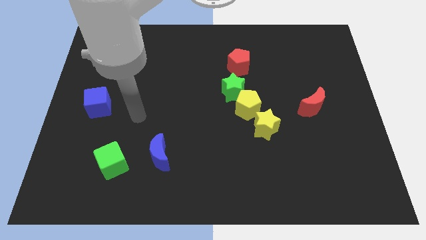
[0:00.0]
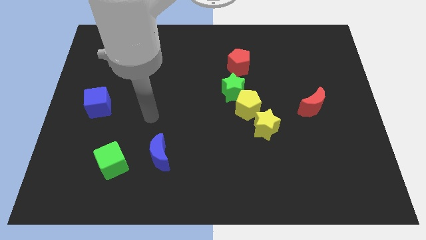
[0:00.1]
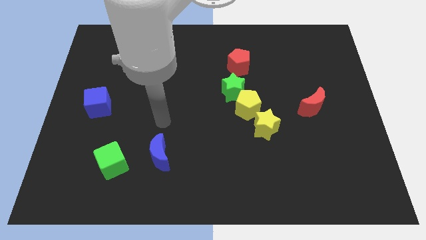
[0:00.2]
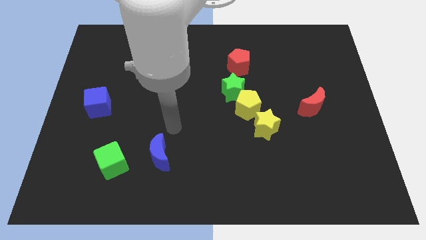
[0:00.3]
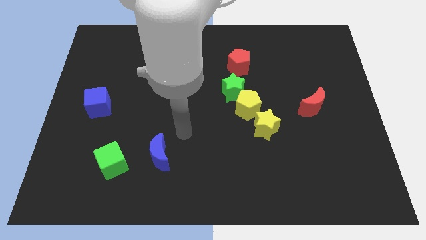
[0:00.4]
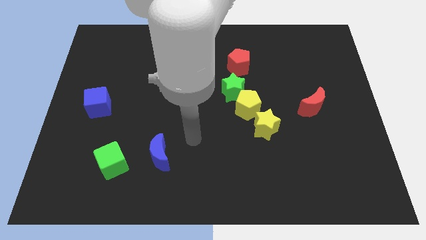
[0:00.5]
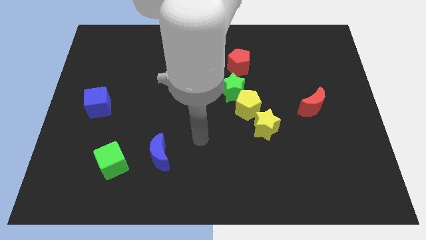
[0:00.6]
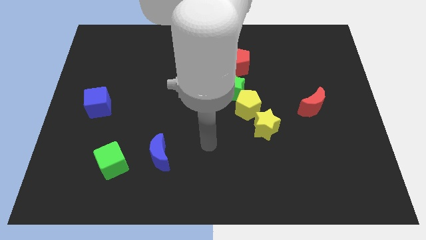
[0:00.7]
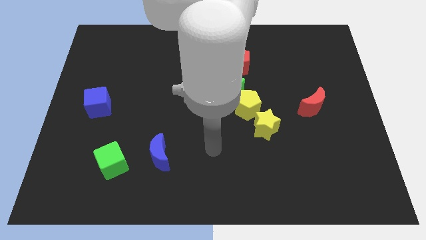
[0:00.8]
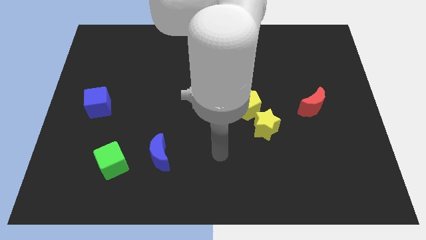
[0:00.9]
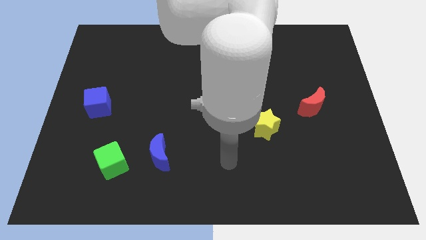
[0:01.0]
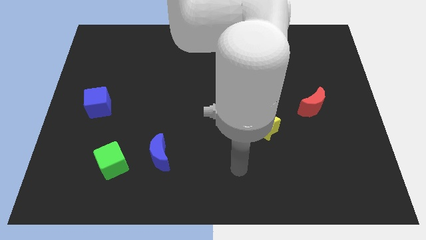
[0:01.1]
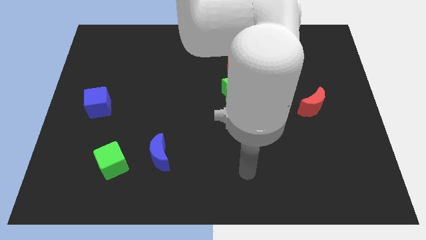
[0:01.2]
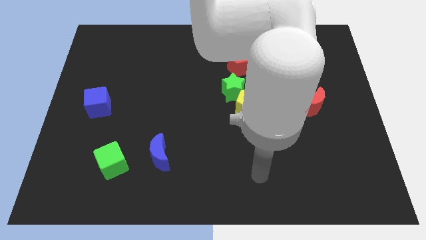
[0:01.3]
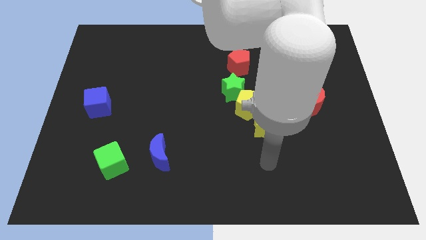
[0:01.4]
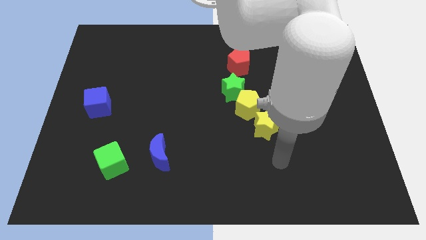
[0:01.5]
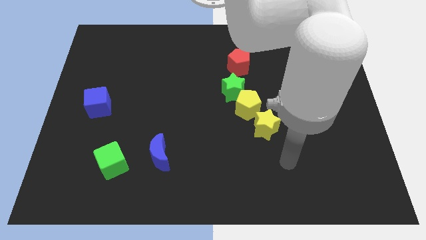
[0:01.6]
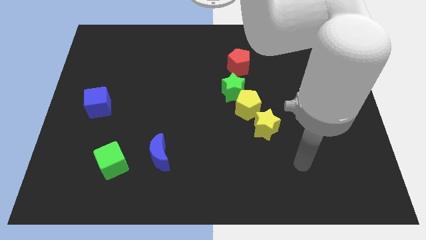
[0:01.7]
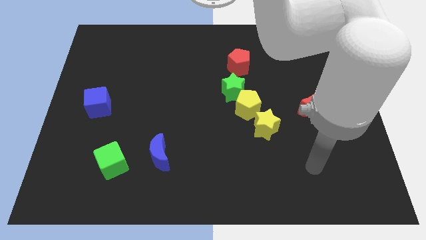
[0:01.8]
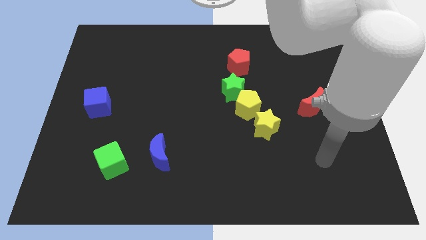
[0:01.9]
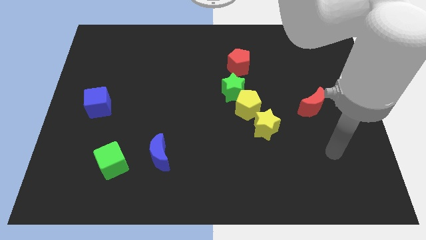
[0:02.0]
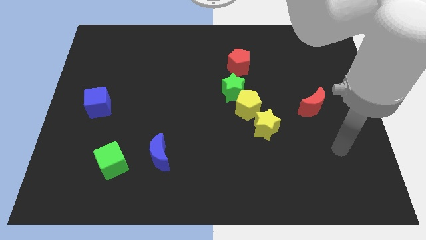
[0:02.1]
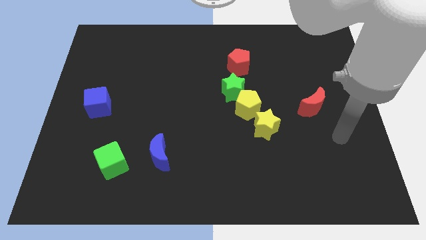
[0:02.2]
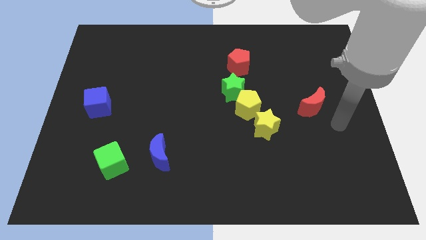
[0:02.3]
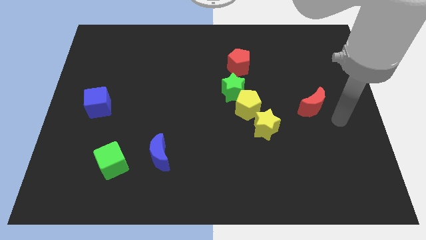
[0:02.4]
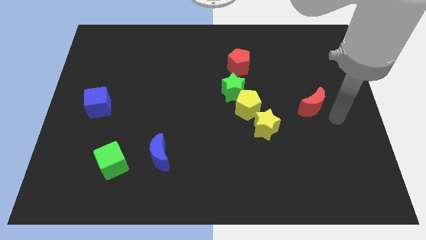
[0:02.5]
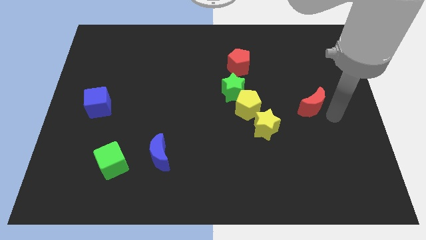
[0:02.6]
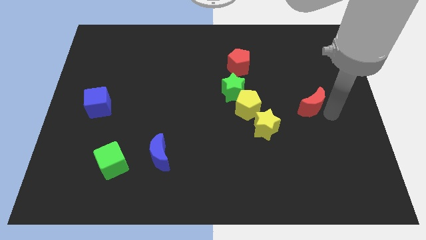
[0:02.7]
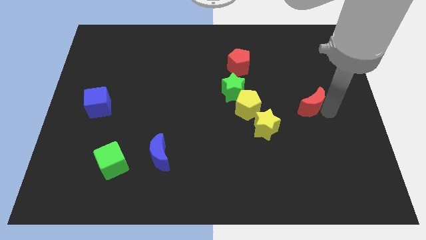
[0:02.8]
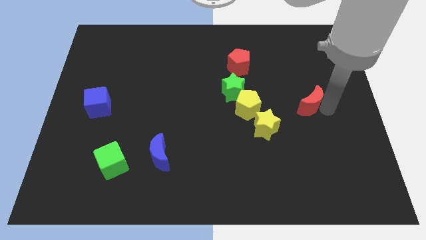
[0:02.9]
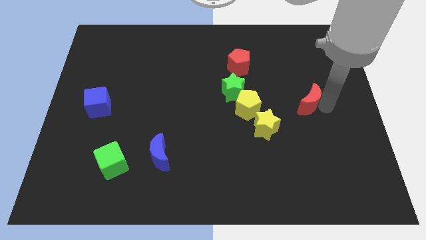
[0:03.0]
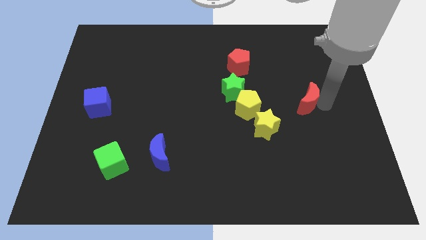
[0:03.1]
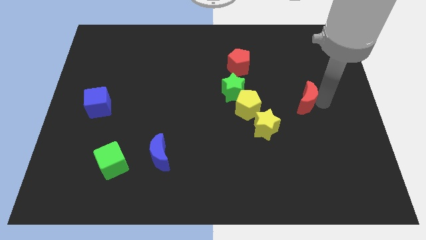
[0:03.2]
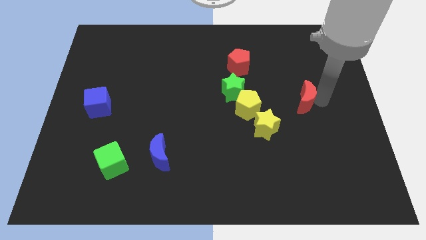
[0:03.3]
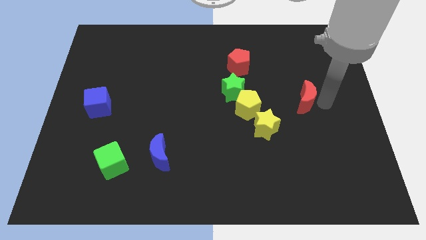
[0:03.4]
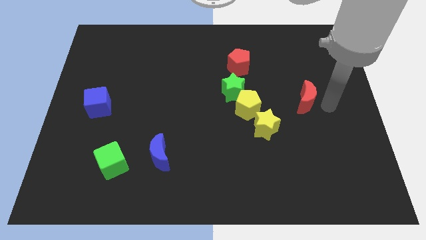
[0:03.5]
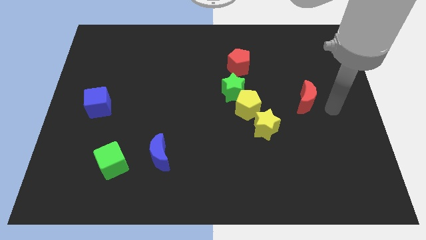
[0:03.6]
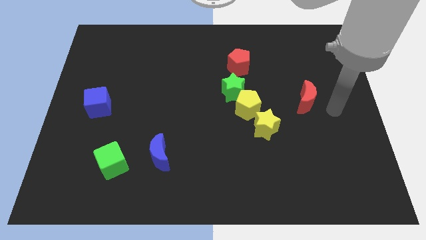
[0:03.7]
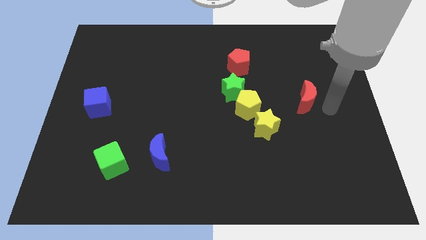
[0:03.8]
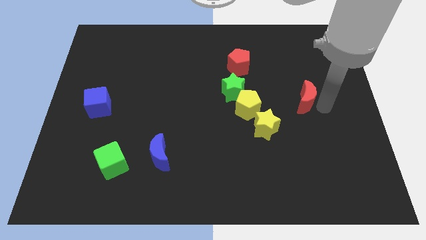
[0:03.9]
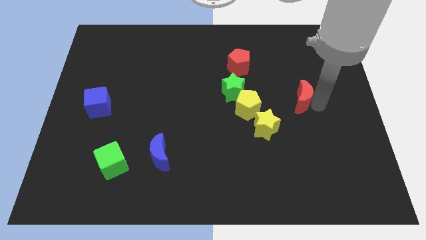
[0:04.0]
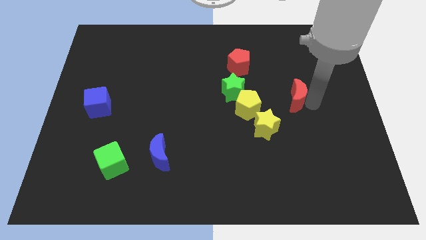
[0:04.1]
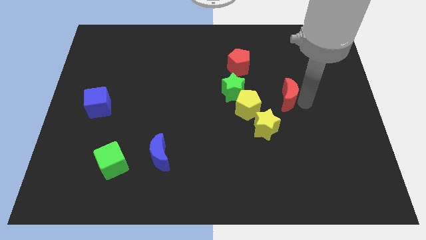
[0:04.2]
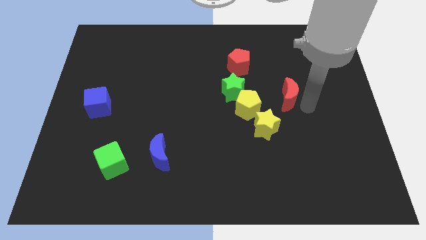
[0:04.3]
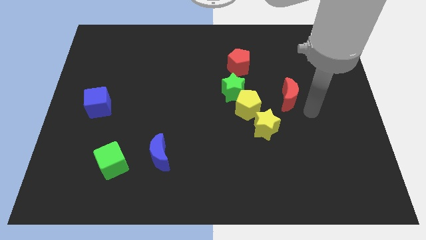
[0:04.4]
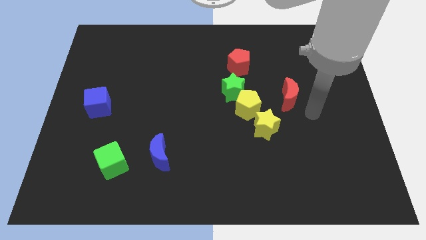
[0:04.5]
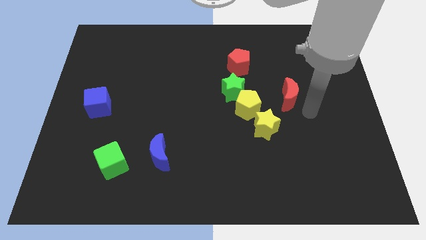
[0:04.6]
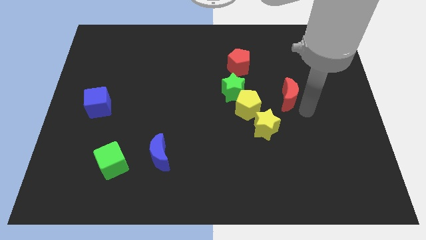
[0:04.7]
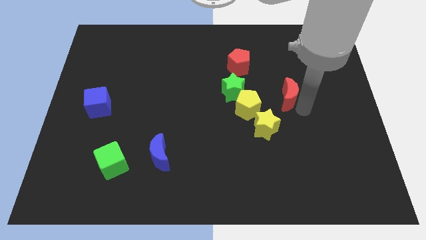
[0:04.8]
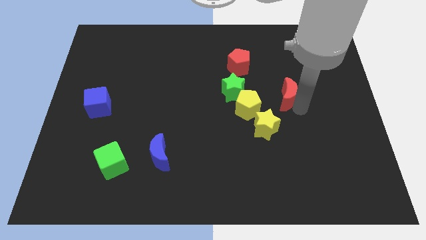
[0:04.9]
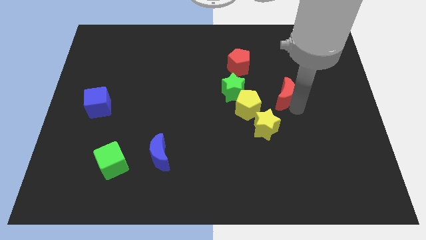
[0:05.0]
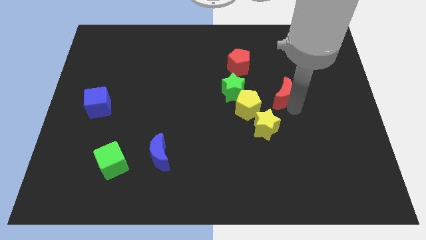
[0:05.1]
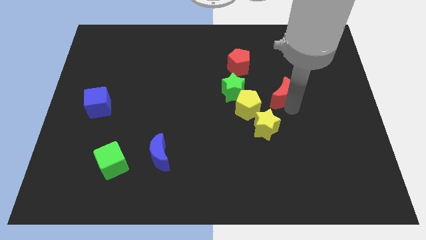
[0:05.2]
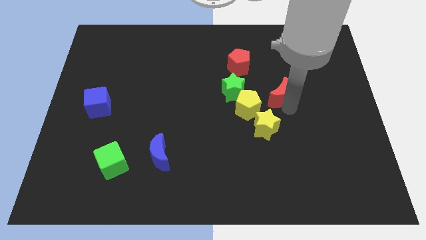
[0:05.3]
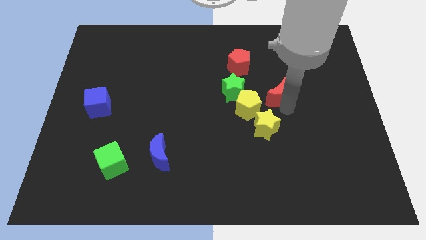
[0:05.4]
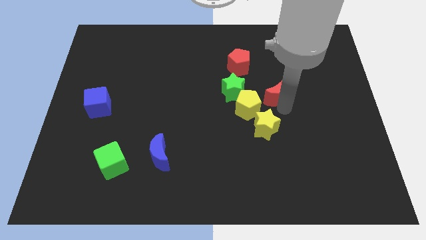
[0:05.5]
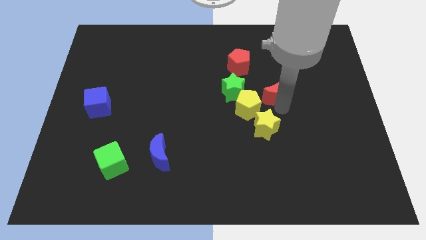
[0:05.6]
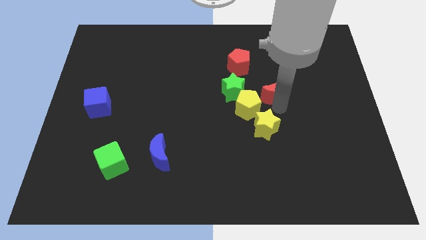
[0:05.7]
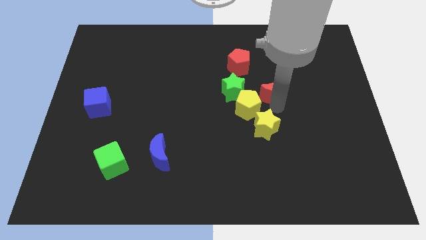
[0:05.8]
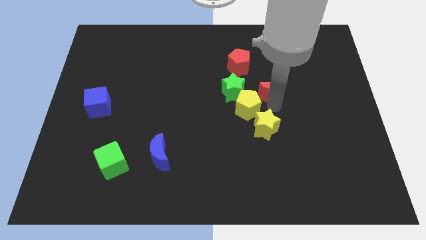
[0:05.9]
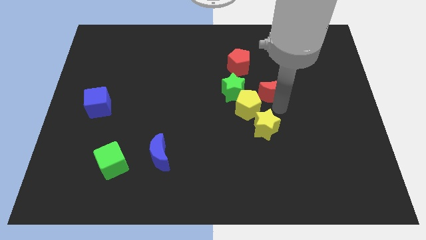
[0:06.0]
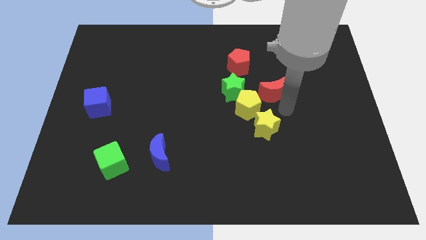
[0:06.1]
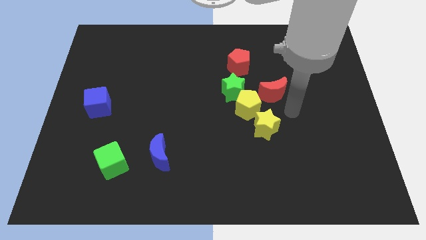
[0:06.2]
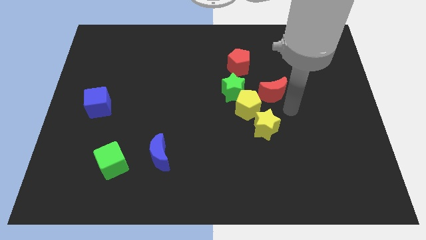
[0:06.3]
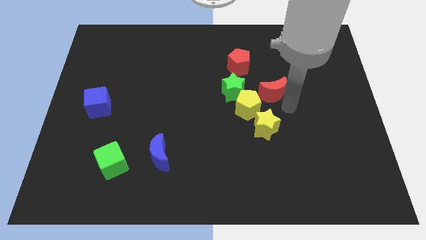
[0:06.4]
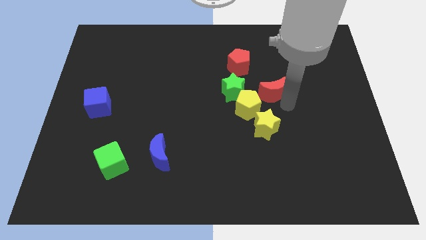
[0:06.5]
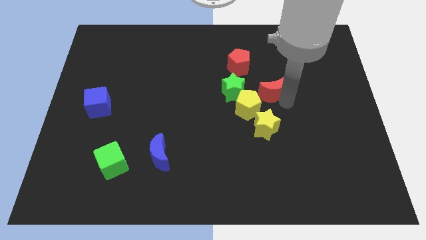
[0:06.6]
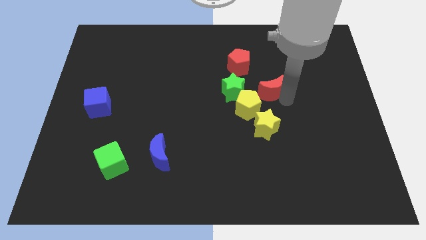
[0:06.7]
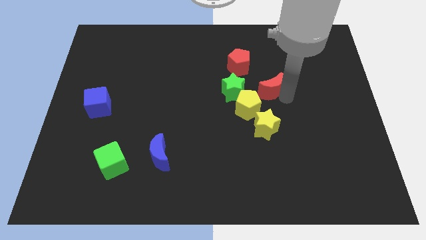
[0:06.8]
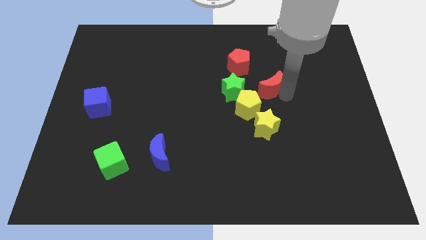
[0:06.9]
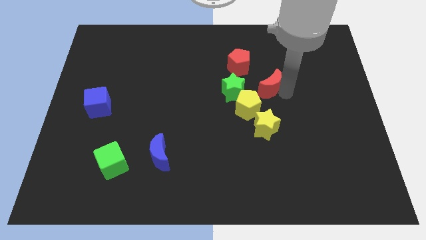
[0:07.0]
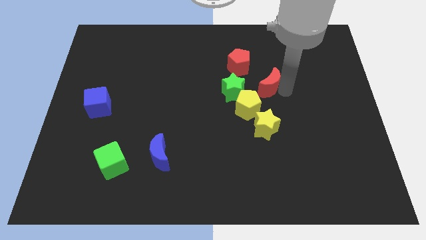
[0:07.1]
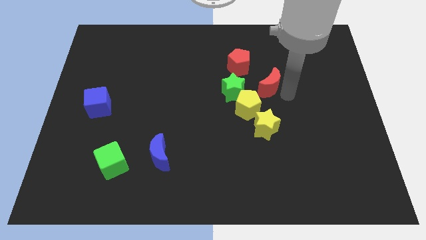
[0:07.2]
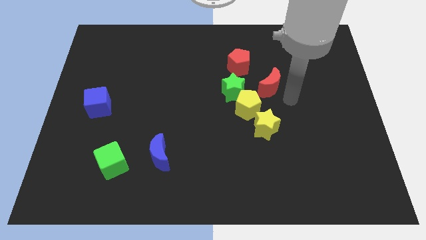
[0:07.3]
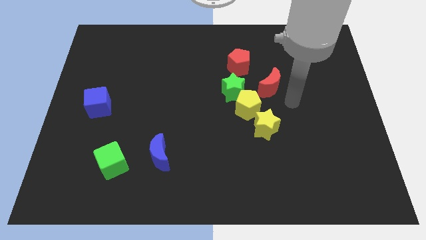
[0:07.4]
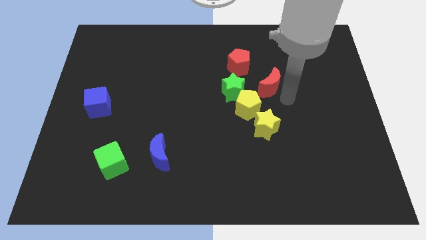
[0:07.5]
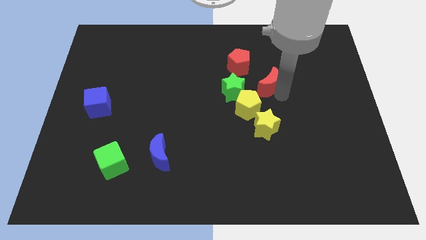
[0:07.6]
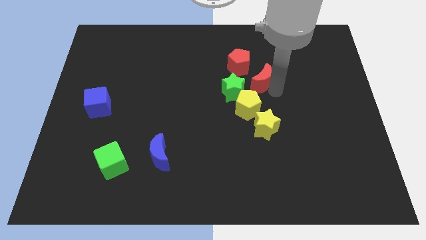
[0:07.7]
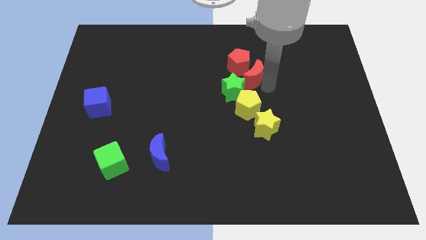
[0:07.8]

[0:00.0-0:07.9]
push the red moon close to the red pentagon
